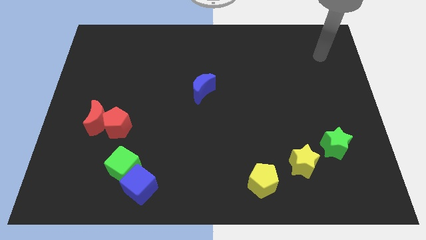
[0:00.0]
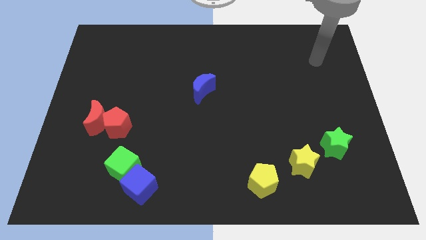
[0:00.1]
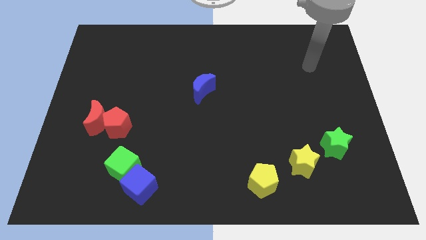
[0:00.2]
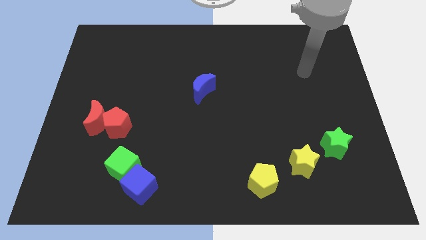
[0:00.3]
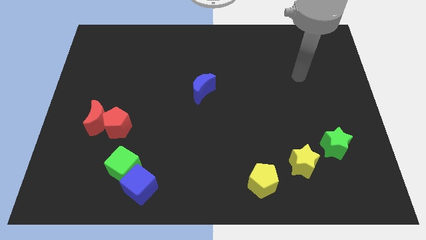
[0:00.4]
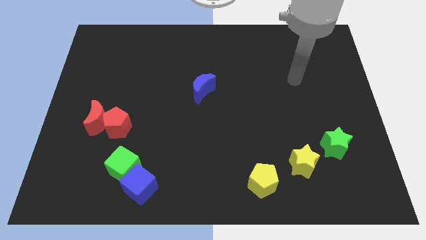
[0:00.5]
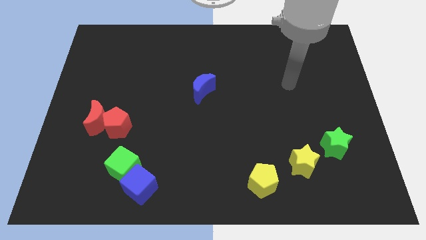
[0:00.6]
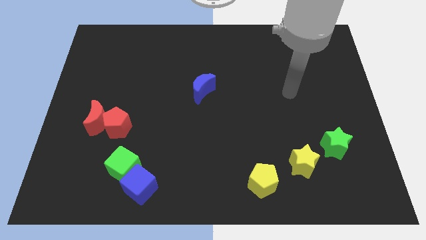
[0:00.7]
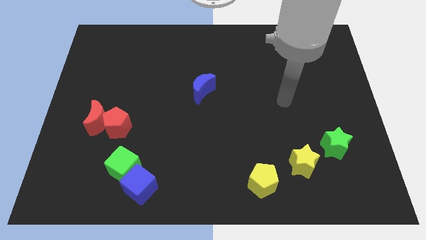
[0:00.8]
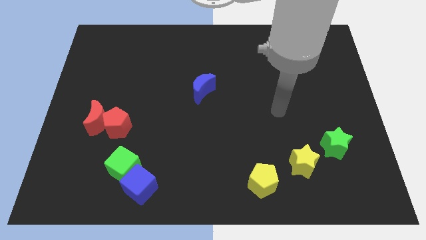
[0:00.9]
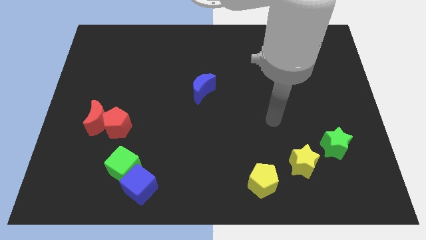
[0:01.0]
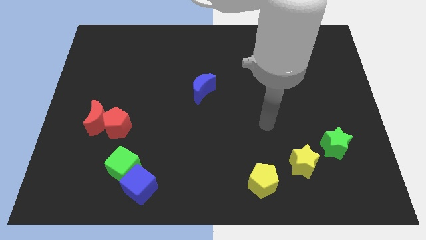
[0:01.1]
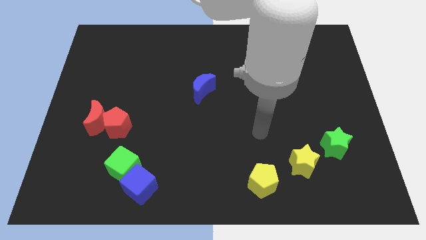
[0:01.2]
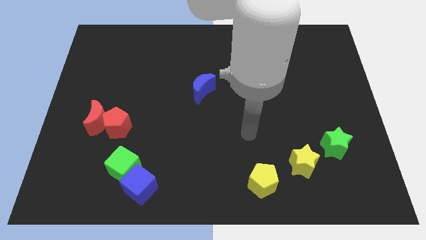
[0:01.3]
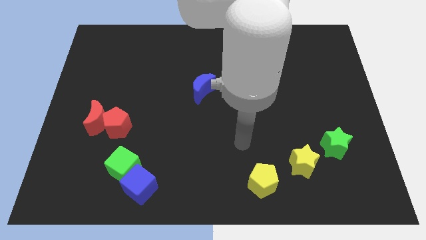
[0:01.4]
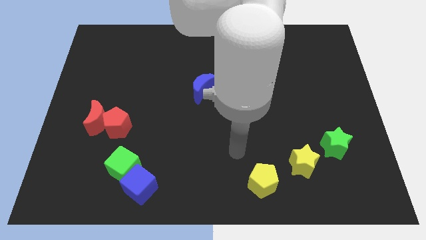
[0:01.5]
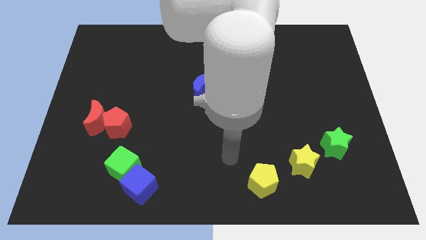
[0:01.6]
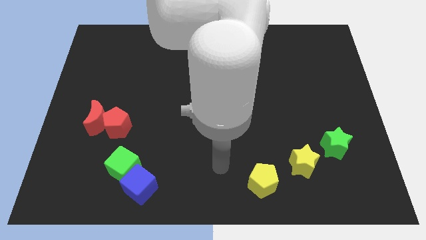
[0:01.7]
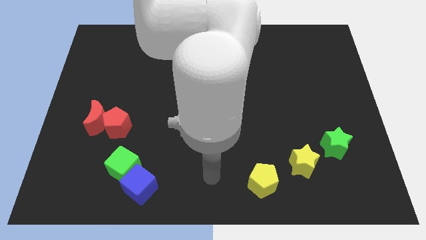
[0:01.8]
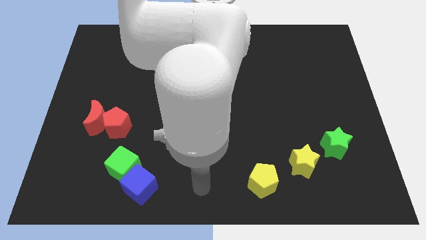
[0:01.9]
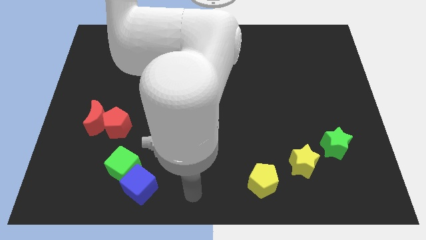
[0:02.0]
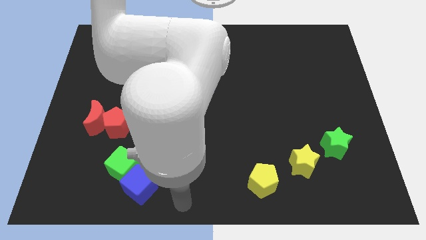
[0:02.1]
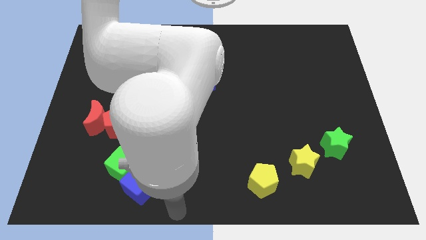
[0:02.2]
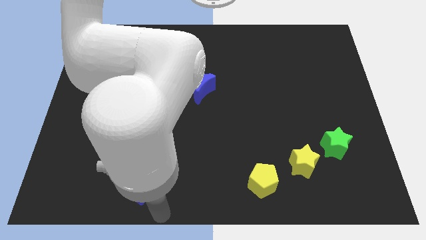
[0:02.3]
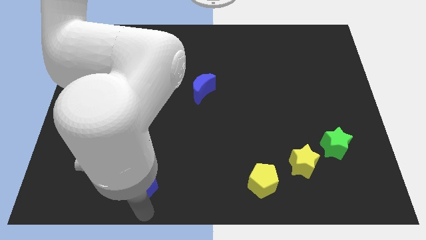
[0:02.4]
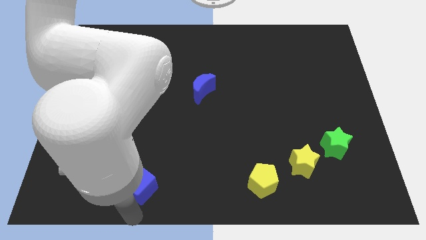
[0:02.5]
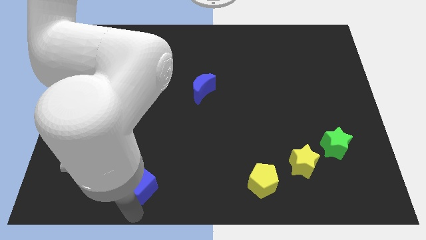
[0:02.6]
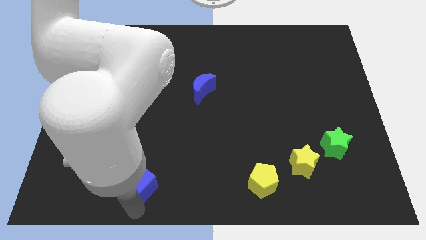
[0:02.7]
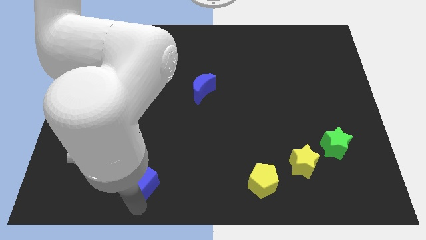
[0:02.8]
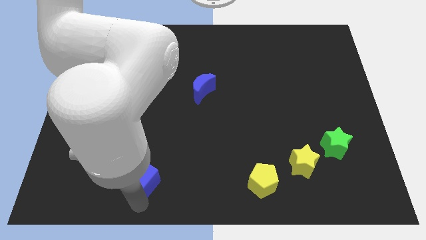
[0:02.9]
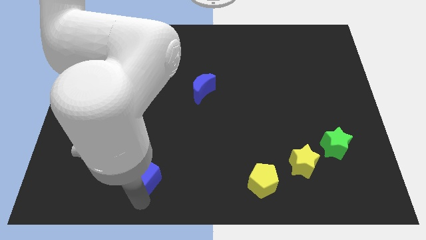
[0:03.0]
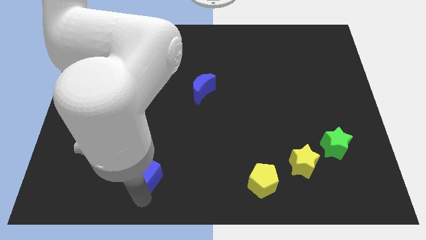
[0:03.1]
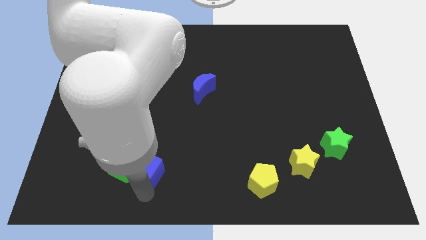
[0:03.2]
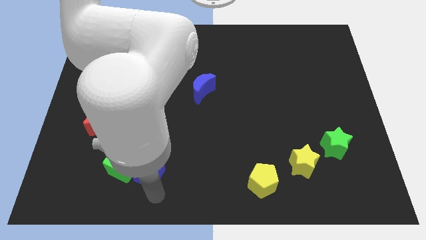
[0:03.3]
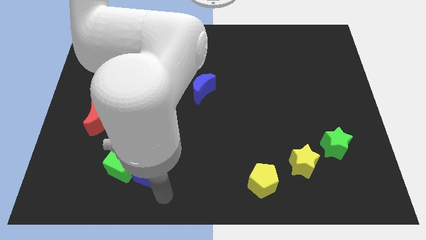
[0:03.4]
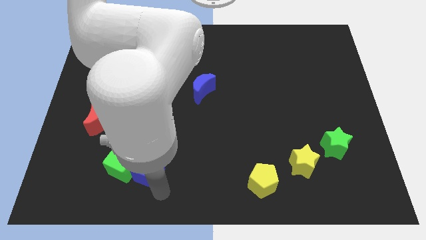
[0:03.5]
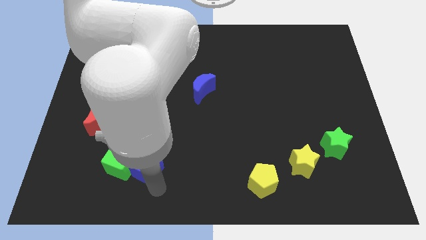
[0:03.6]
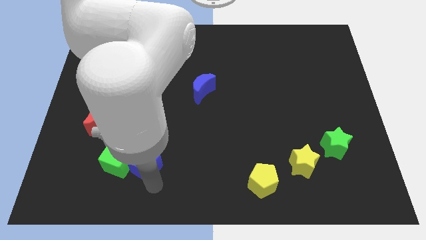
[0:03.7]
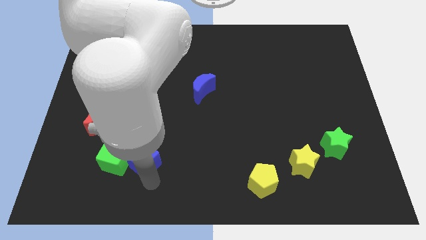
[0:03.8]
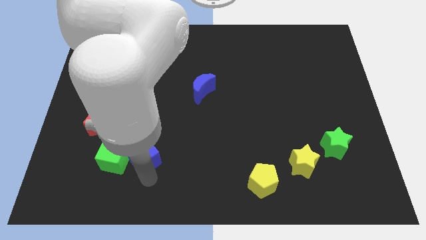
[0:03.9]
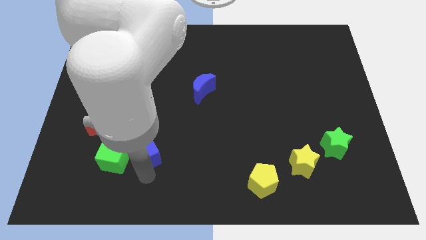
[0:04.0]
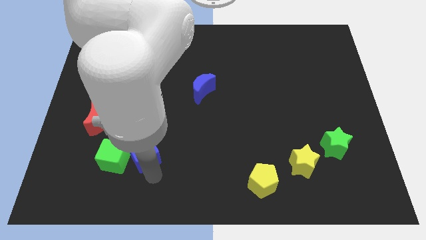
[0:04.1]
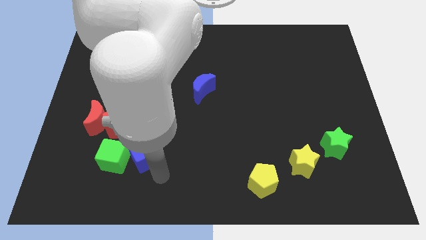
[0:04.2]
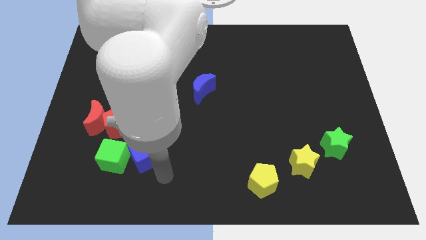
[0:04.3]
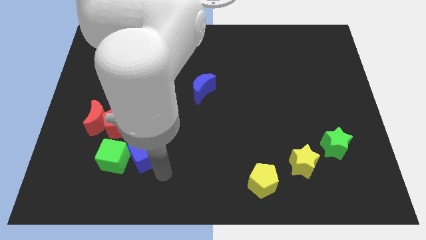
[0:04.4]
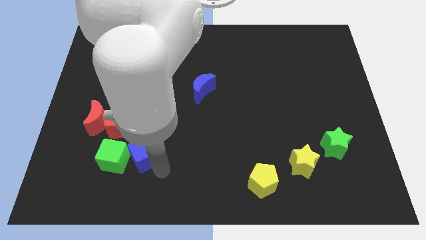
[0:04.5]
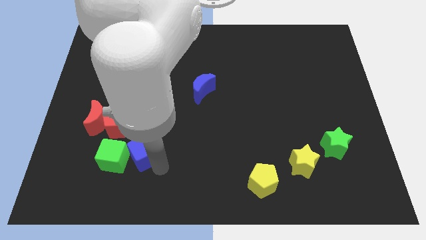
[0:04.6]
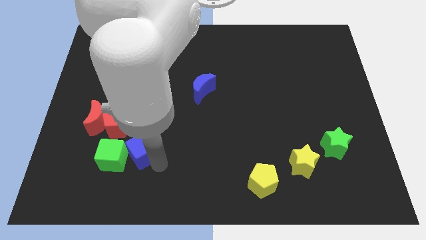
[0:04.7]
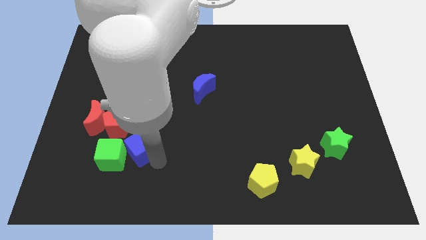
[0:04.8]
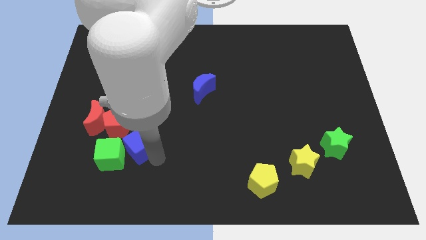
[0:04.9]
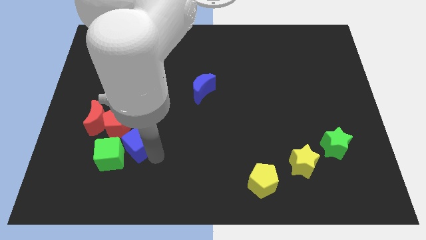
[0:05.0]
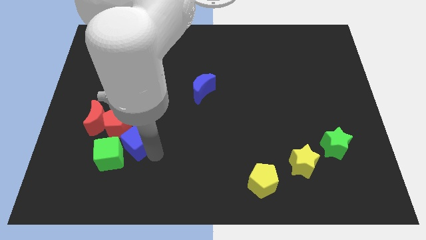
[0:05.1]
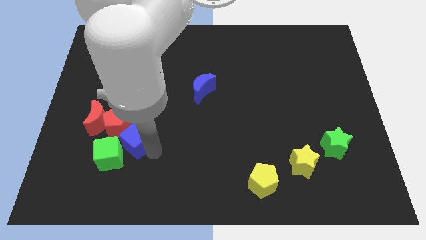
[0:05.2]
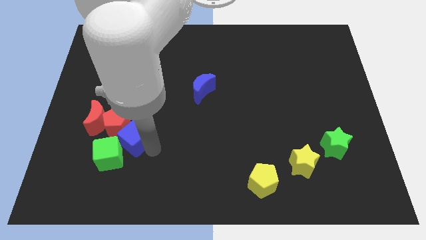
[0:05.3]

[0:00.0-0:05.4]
slide the blue cube next to the red pentagon

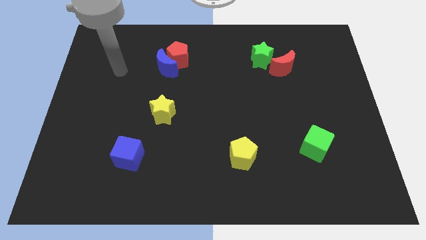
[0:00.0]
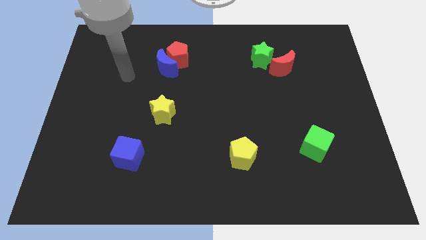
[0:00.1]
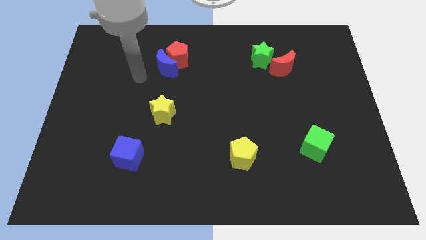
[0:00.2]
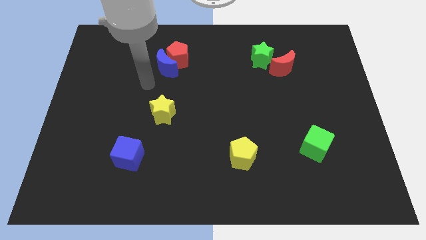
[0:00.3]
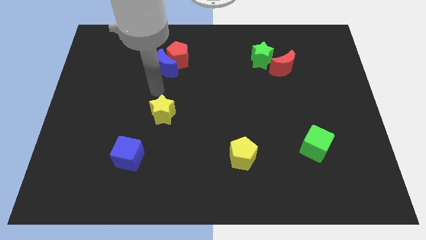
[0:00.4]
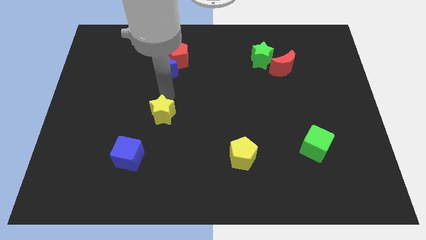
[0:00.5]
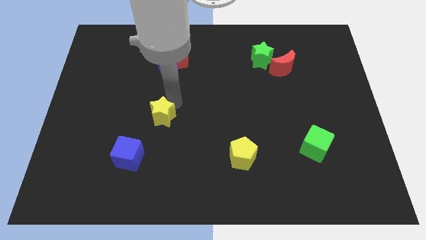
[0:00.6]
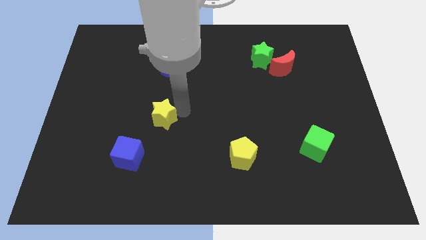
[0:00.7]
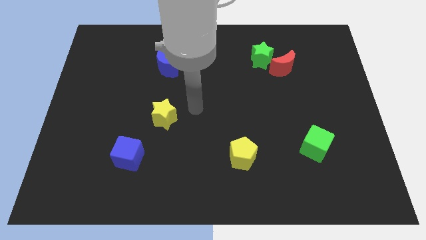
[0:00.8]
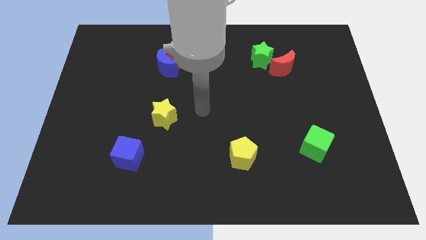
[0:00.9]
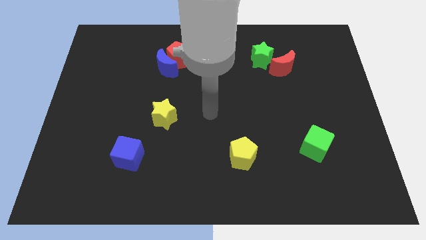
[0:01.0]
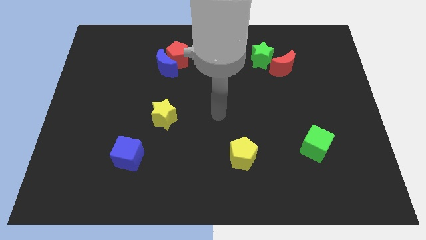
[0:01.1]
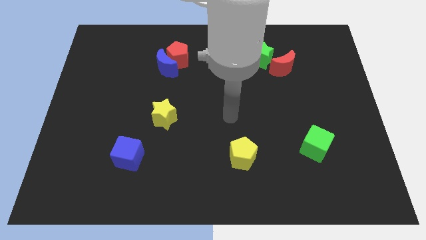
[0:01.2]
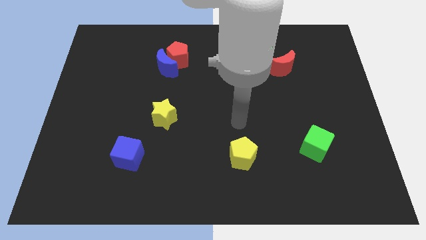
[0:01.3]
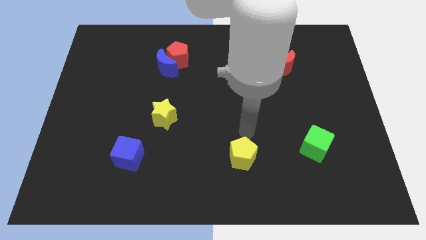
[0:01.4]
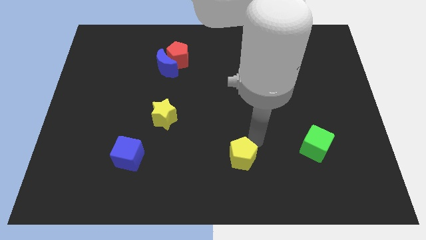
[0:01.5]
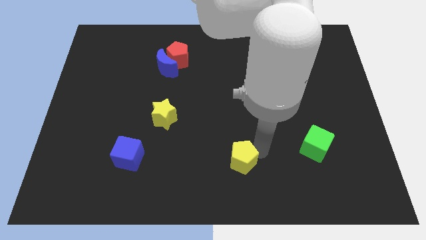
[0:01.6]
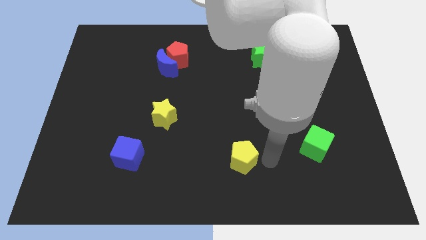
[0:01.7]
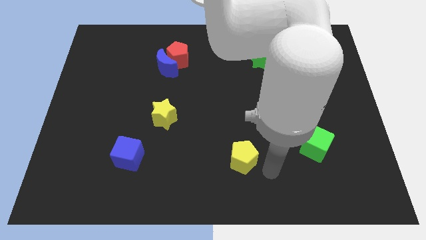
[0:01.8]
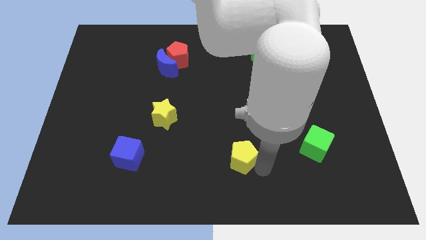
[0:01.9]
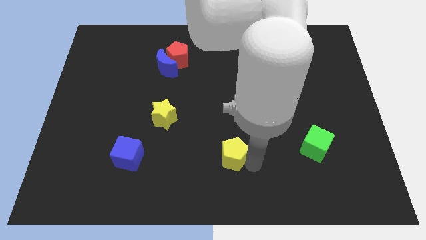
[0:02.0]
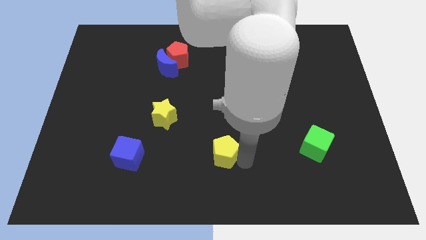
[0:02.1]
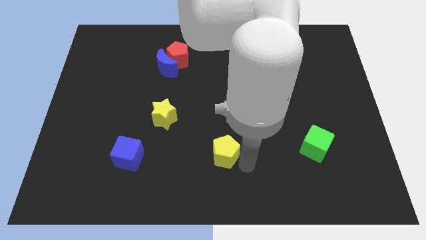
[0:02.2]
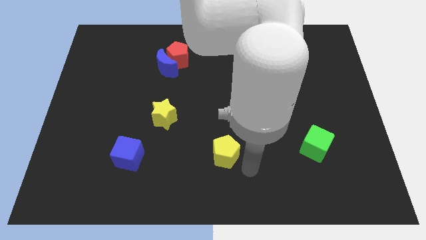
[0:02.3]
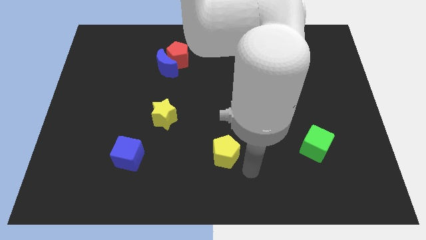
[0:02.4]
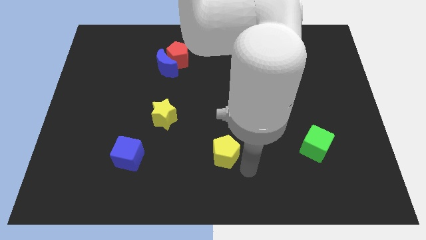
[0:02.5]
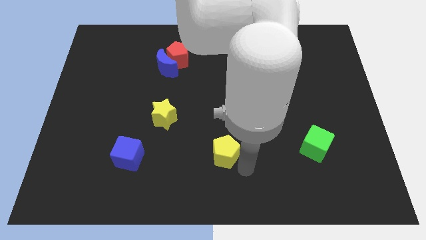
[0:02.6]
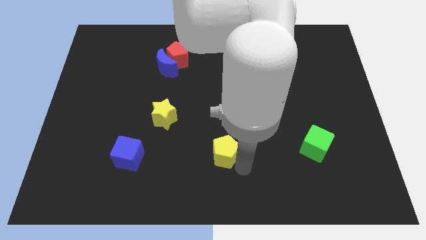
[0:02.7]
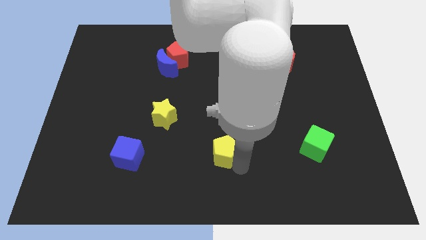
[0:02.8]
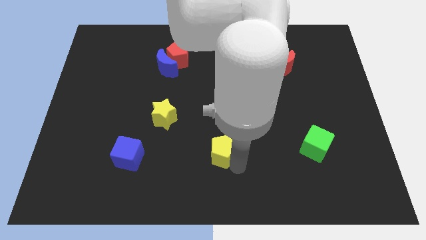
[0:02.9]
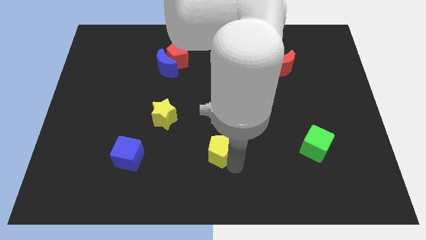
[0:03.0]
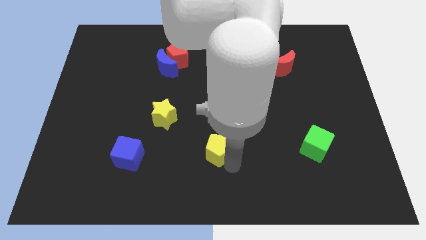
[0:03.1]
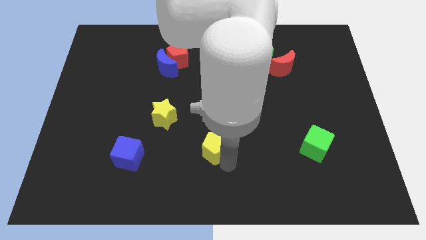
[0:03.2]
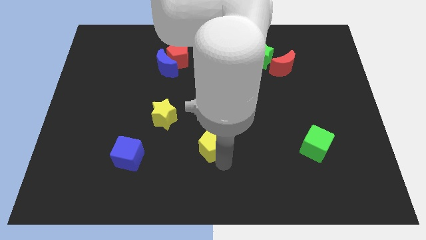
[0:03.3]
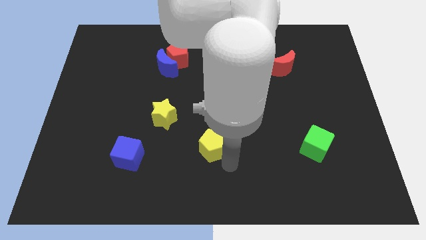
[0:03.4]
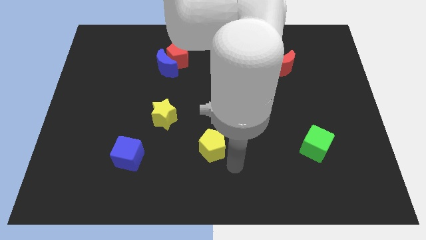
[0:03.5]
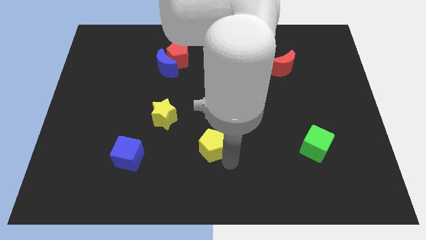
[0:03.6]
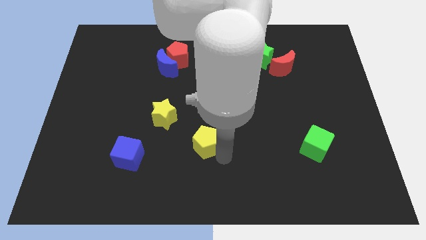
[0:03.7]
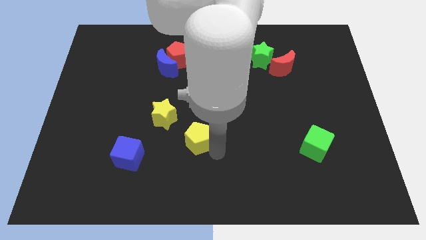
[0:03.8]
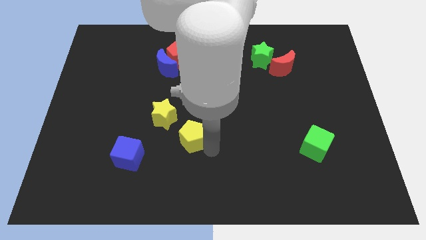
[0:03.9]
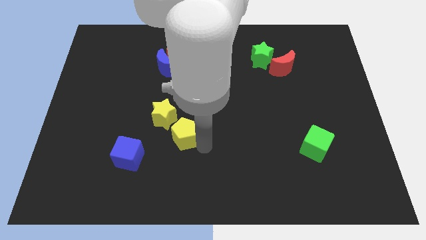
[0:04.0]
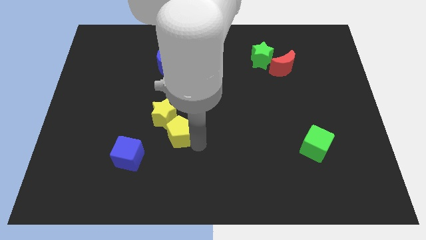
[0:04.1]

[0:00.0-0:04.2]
put the yellow pentagon to the yellow star
